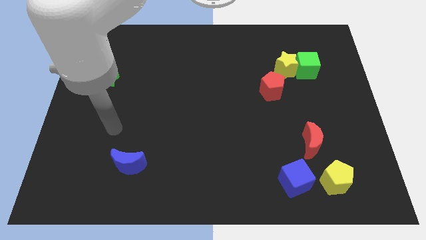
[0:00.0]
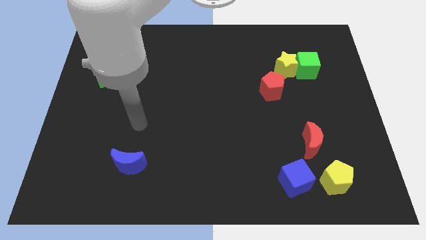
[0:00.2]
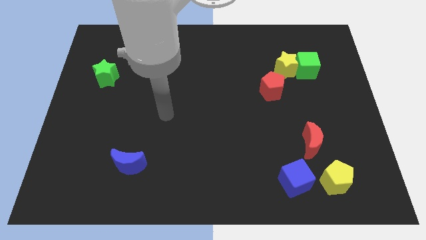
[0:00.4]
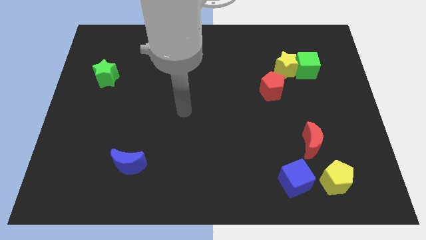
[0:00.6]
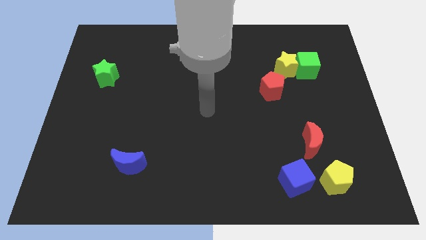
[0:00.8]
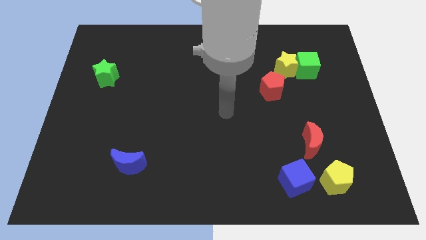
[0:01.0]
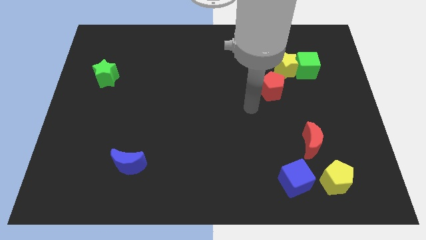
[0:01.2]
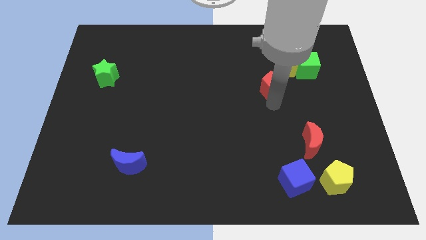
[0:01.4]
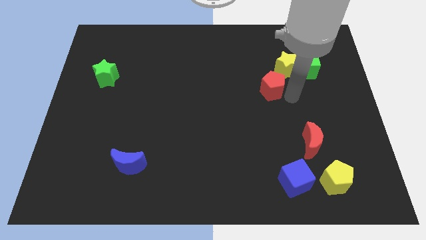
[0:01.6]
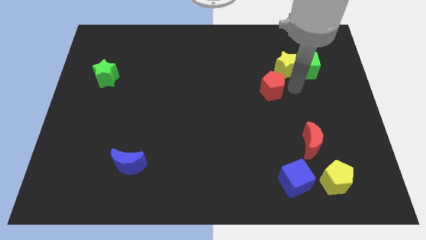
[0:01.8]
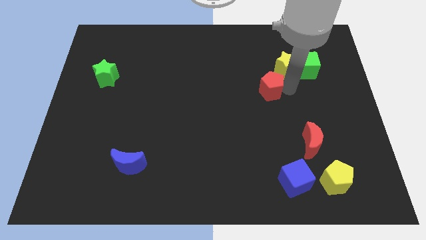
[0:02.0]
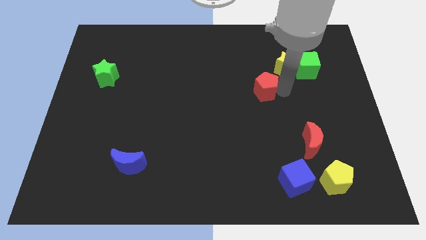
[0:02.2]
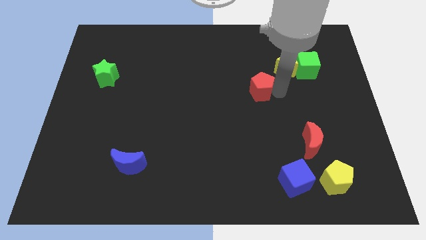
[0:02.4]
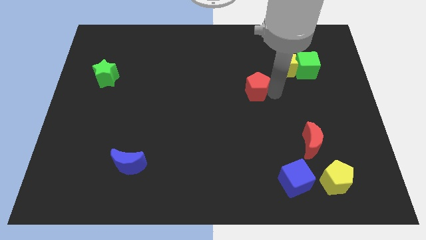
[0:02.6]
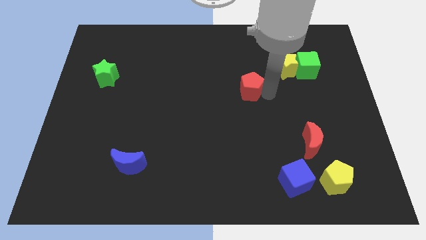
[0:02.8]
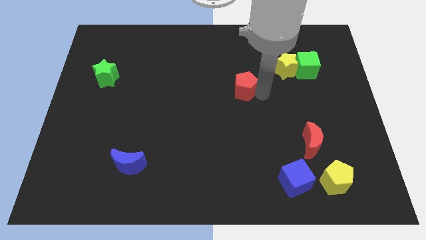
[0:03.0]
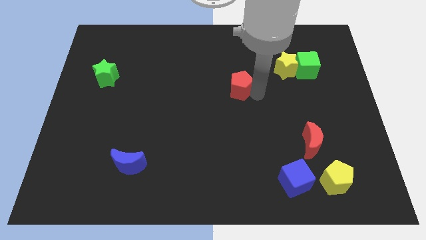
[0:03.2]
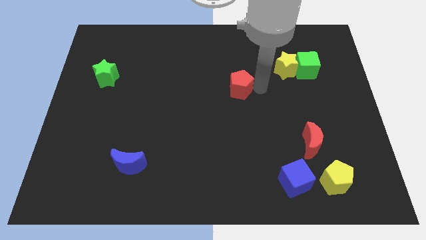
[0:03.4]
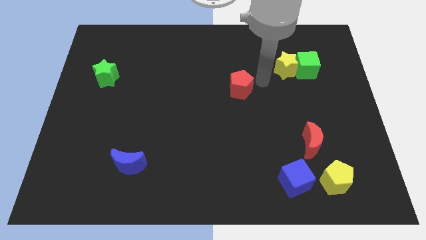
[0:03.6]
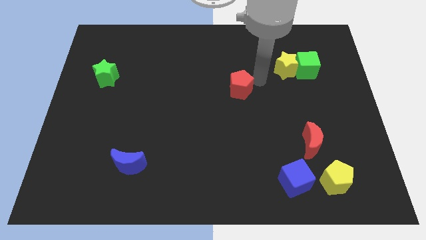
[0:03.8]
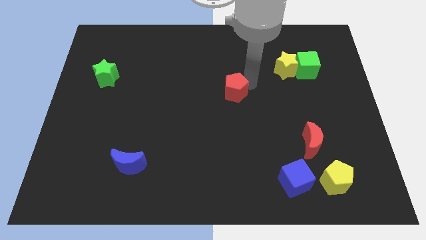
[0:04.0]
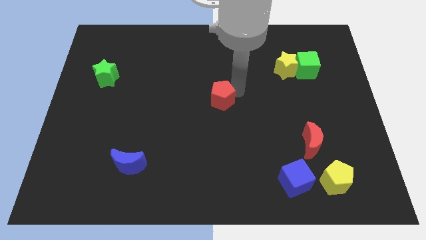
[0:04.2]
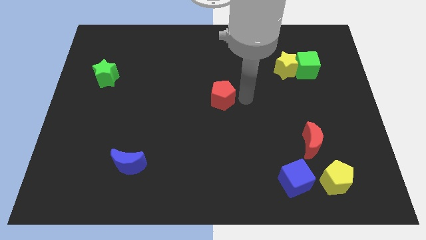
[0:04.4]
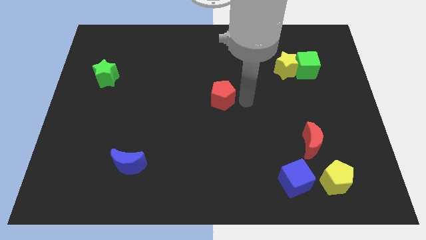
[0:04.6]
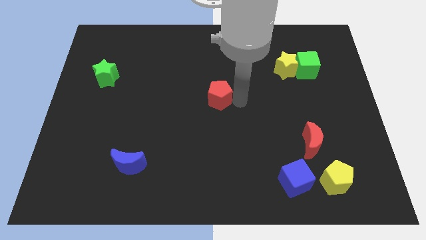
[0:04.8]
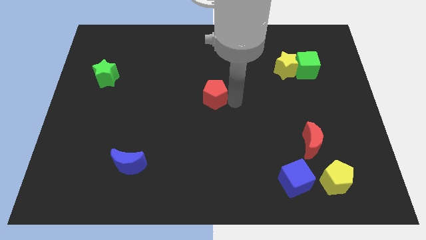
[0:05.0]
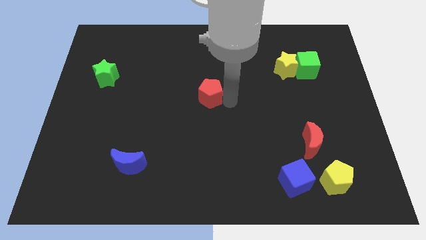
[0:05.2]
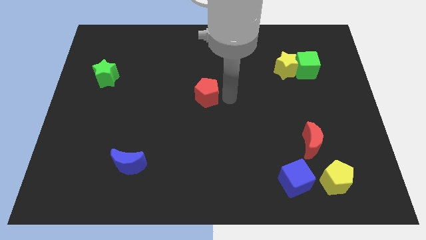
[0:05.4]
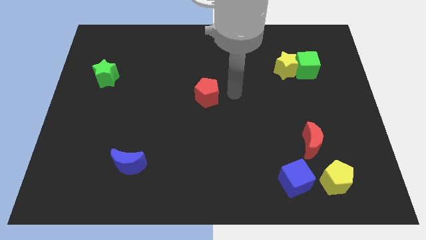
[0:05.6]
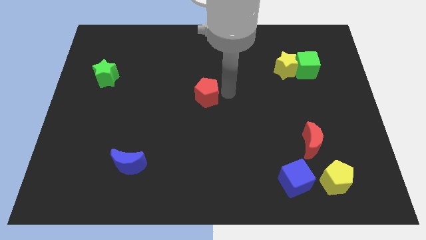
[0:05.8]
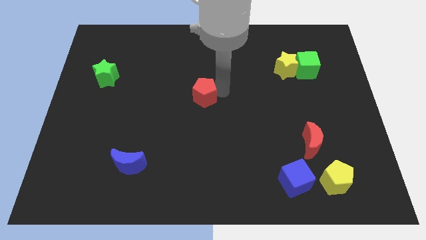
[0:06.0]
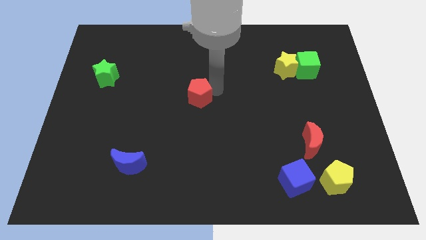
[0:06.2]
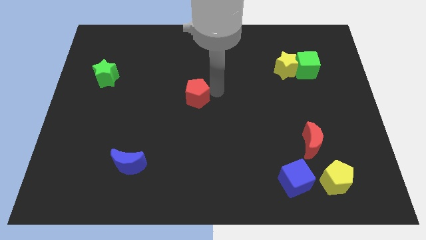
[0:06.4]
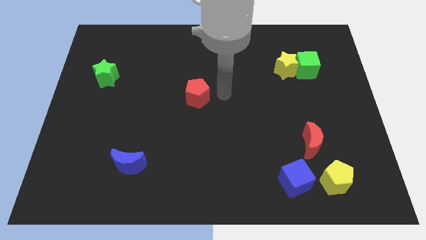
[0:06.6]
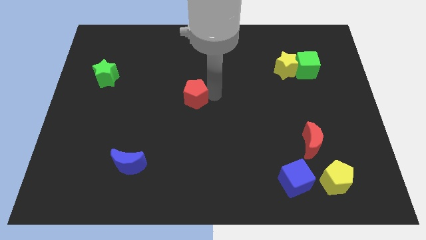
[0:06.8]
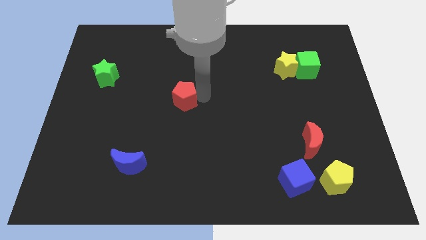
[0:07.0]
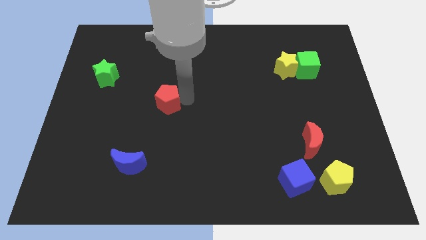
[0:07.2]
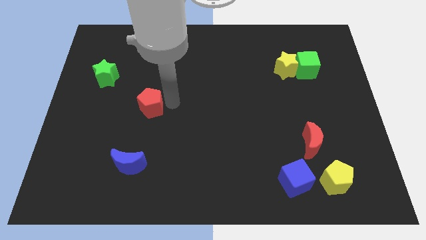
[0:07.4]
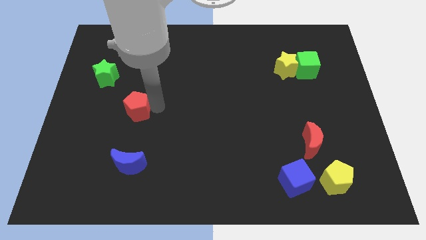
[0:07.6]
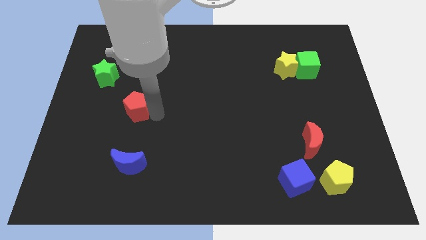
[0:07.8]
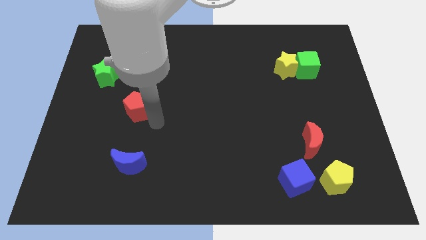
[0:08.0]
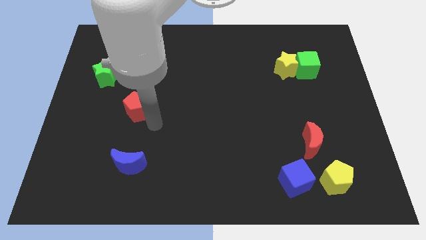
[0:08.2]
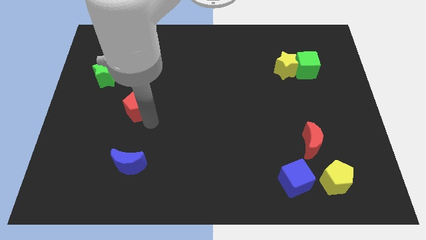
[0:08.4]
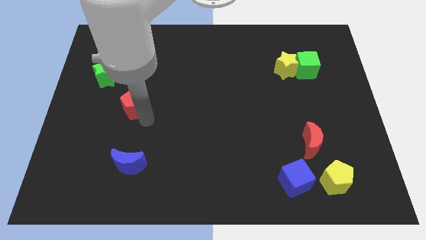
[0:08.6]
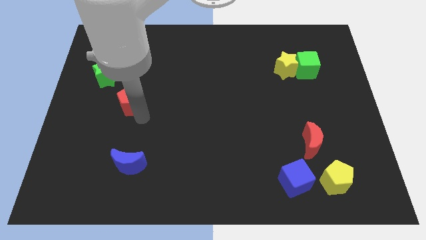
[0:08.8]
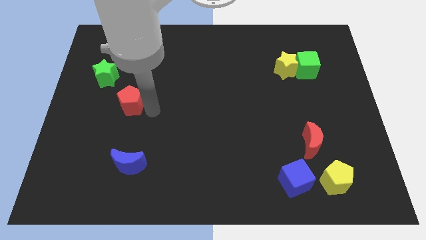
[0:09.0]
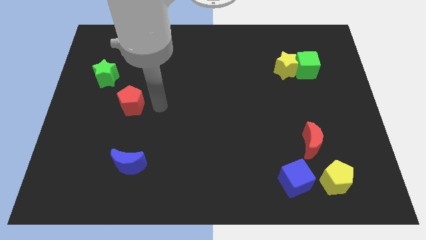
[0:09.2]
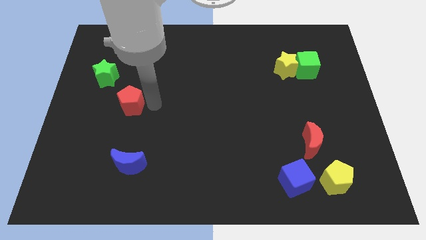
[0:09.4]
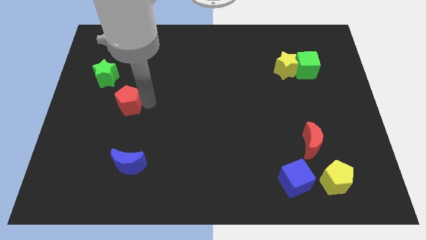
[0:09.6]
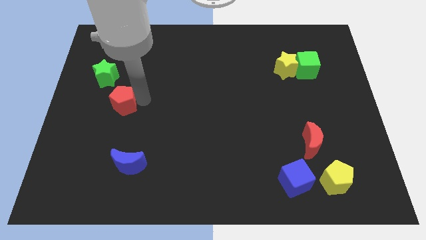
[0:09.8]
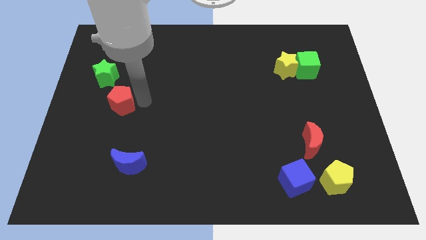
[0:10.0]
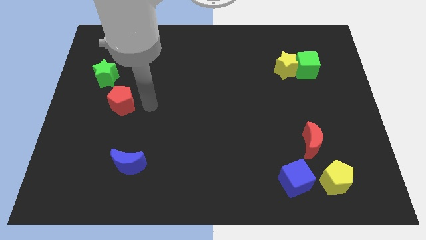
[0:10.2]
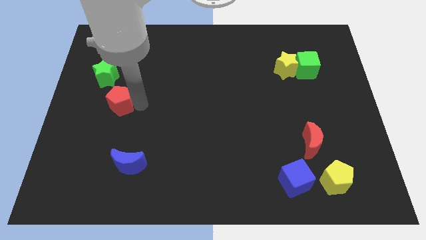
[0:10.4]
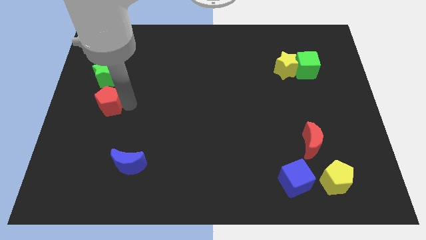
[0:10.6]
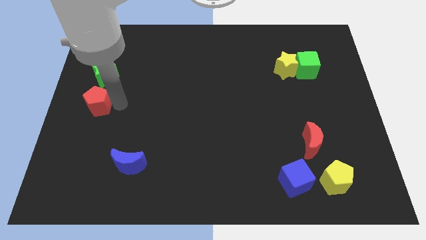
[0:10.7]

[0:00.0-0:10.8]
push the red pentagon to the center left
